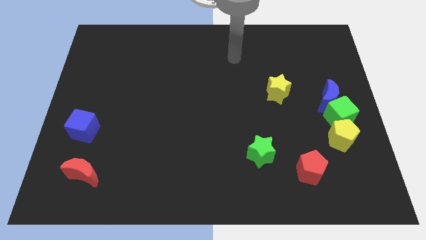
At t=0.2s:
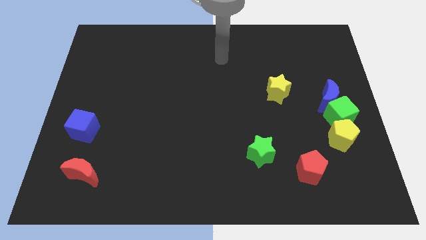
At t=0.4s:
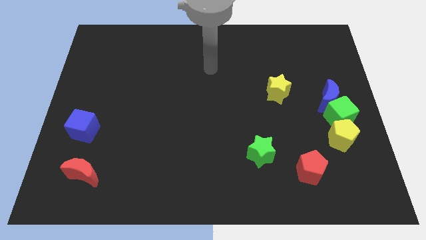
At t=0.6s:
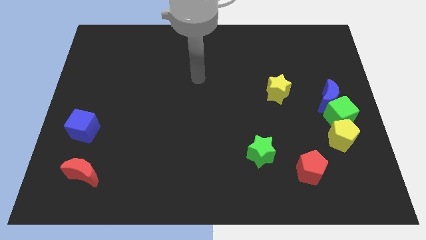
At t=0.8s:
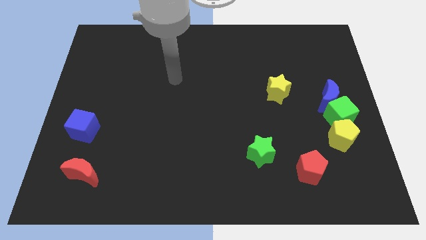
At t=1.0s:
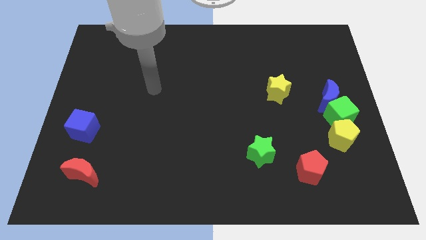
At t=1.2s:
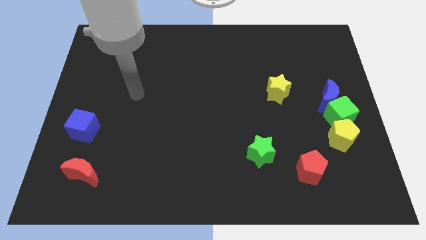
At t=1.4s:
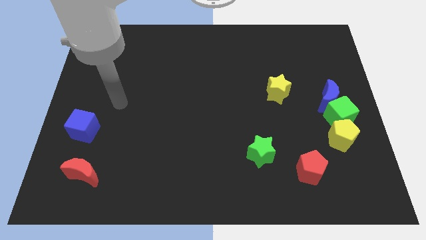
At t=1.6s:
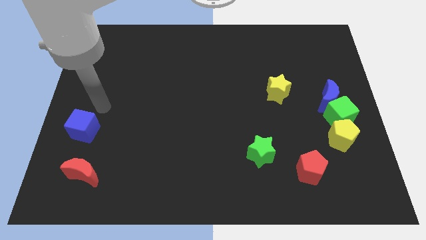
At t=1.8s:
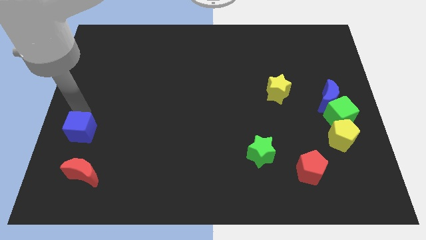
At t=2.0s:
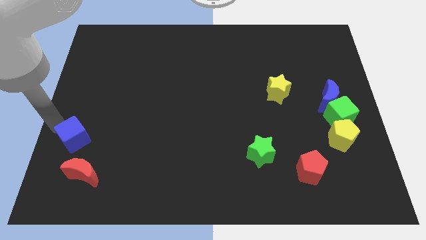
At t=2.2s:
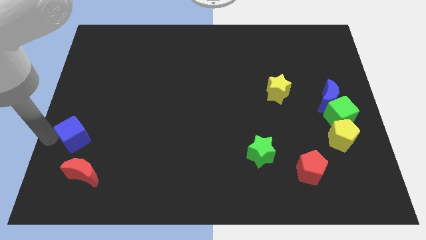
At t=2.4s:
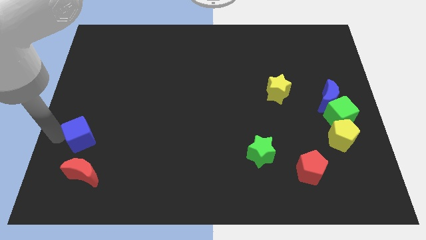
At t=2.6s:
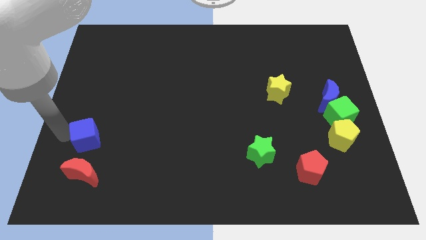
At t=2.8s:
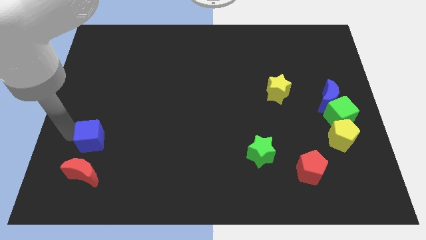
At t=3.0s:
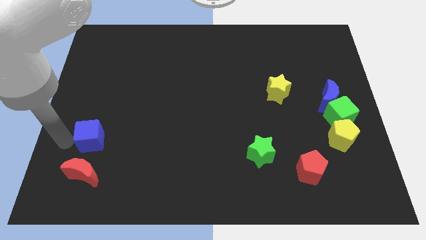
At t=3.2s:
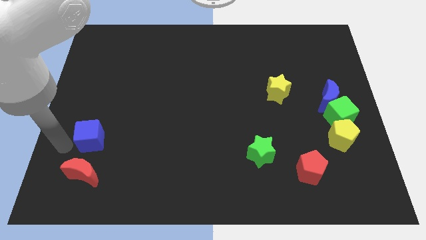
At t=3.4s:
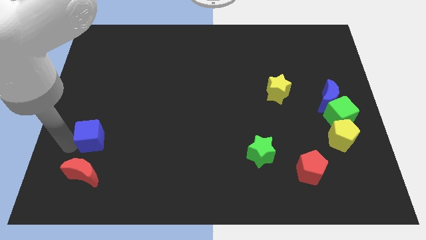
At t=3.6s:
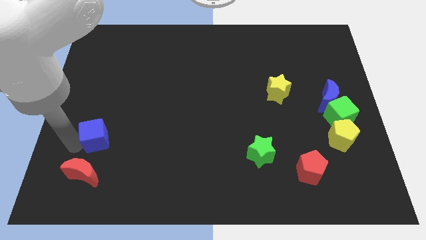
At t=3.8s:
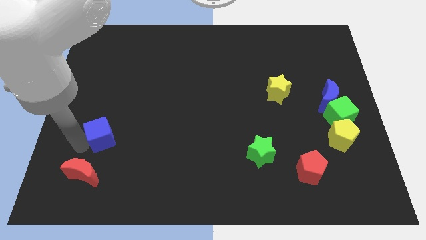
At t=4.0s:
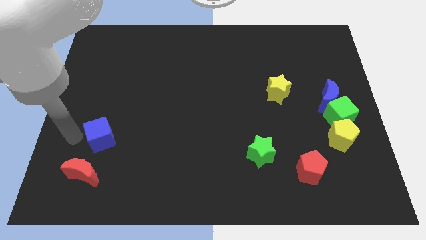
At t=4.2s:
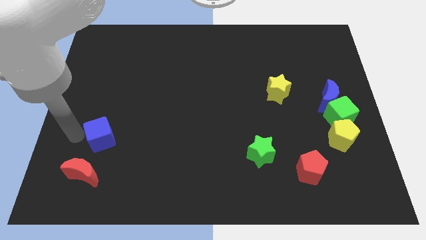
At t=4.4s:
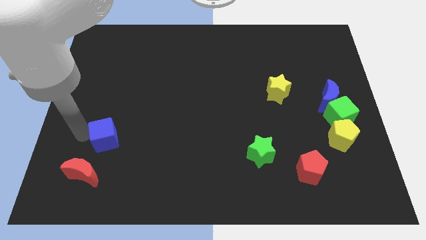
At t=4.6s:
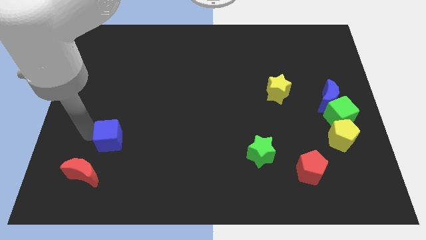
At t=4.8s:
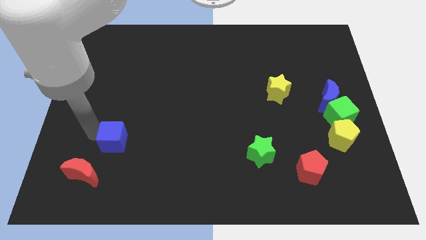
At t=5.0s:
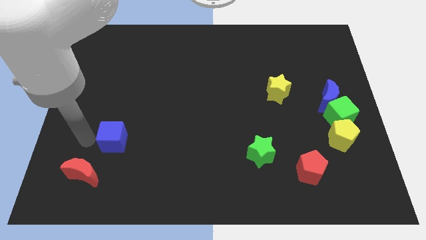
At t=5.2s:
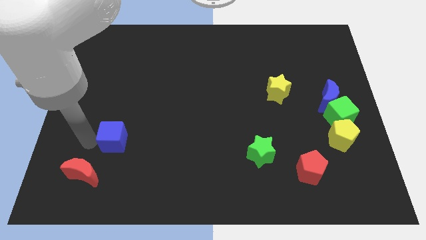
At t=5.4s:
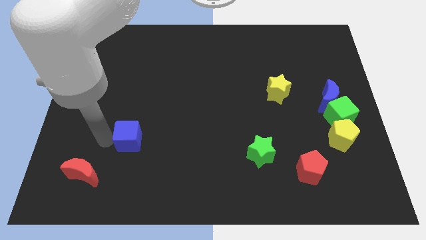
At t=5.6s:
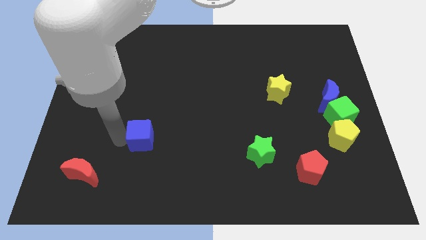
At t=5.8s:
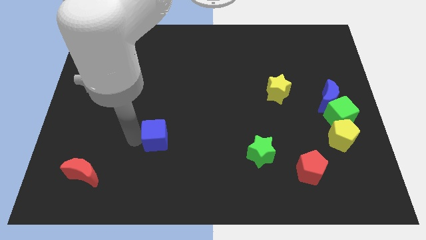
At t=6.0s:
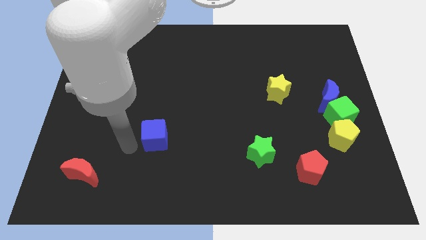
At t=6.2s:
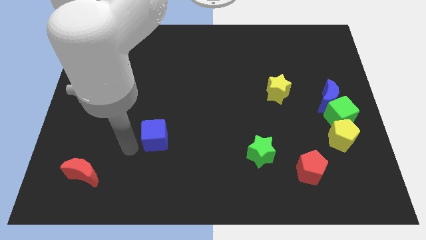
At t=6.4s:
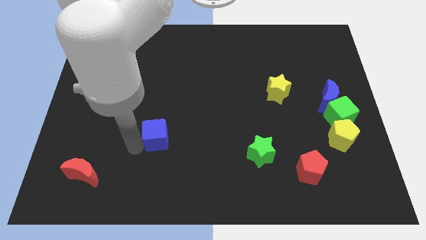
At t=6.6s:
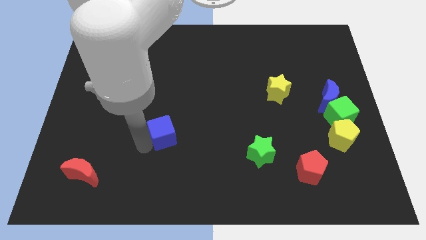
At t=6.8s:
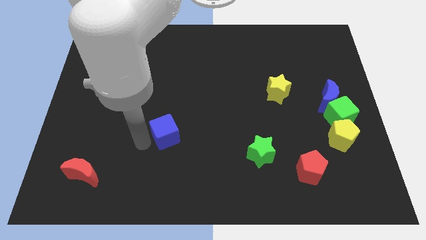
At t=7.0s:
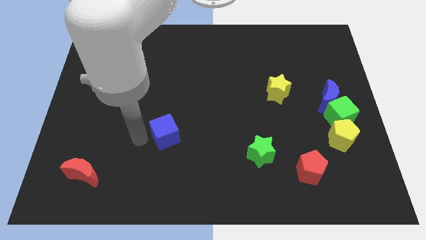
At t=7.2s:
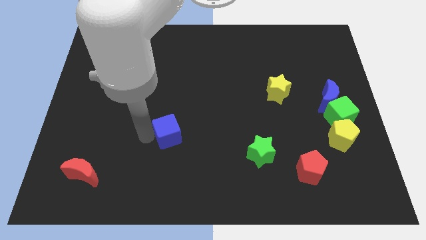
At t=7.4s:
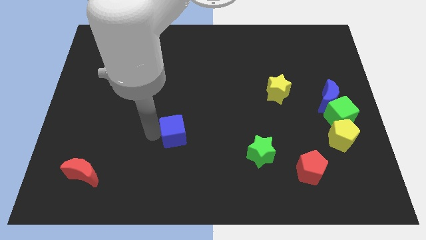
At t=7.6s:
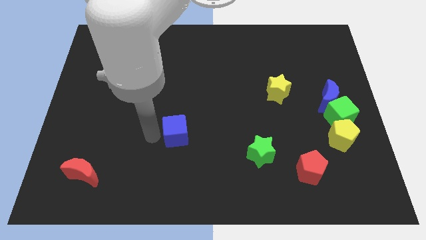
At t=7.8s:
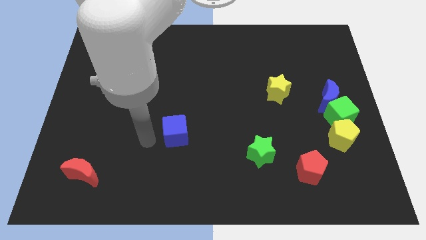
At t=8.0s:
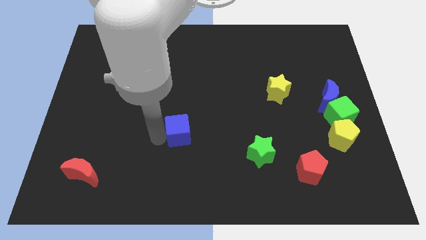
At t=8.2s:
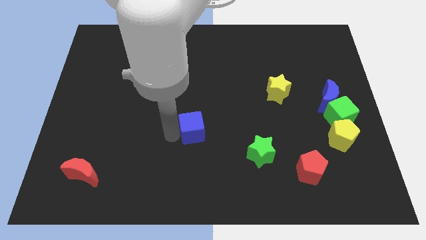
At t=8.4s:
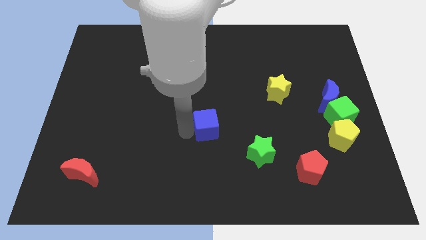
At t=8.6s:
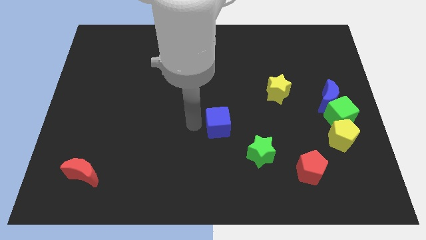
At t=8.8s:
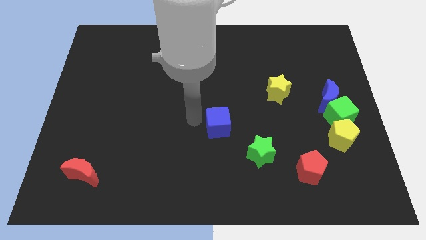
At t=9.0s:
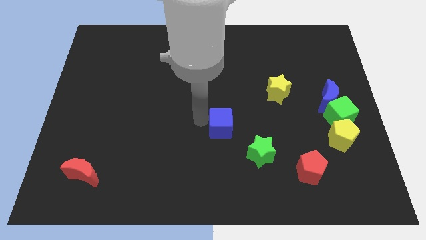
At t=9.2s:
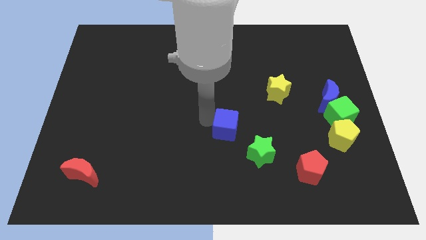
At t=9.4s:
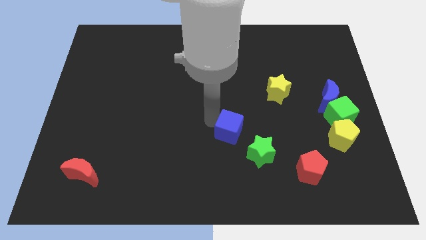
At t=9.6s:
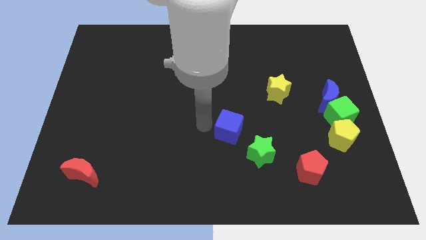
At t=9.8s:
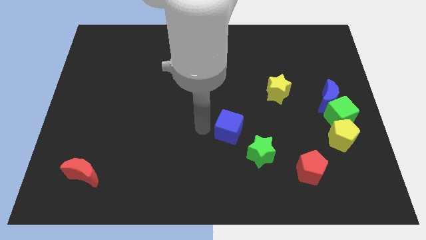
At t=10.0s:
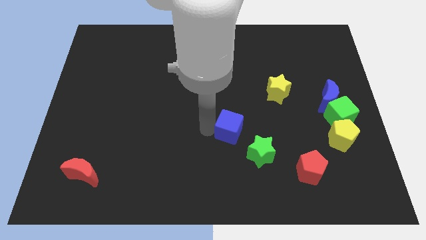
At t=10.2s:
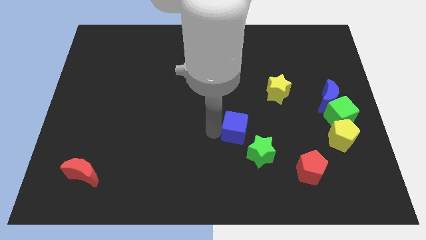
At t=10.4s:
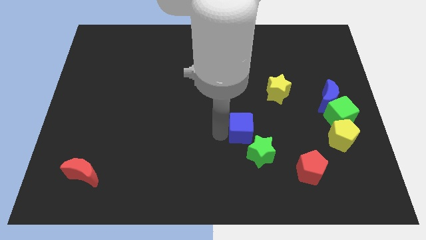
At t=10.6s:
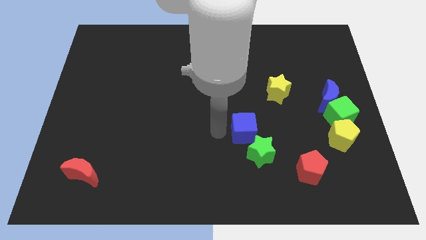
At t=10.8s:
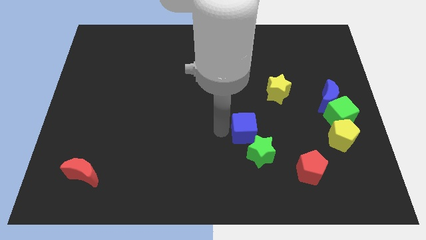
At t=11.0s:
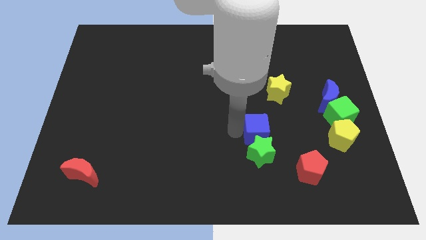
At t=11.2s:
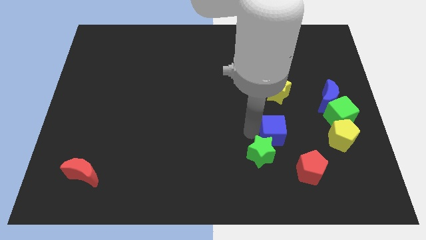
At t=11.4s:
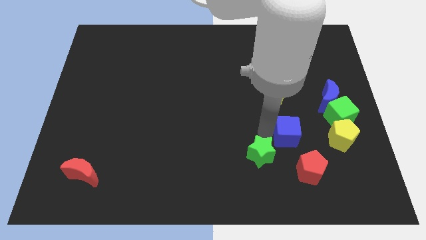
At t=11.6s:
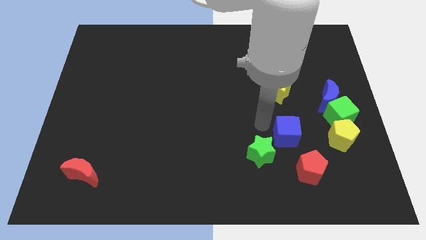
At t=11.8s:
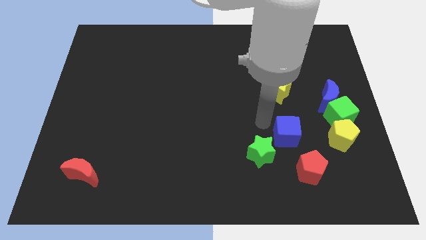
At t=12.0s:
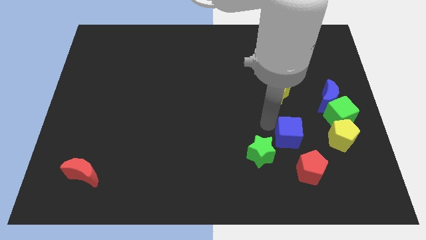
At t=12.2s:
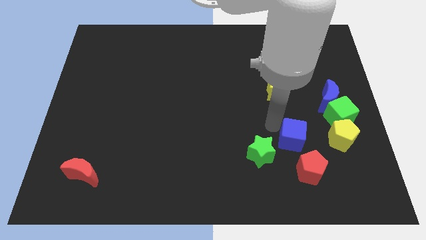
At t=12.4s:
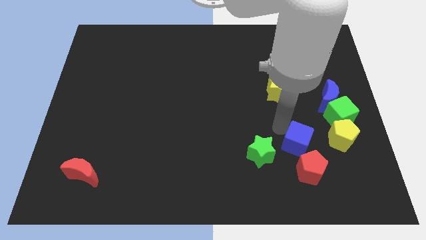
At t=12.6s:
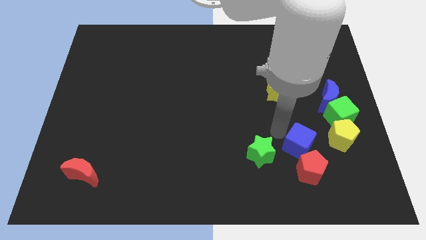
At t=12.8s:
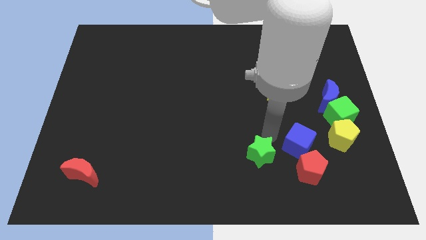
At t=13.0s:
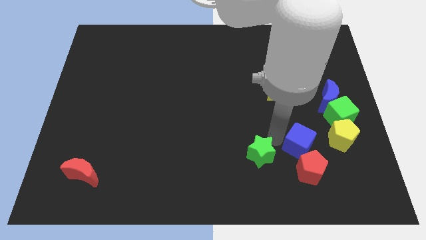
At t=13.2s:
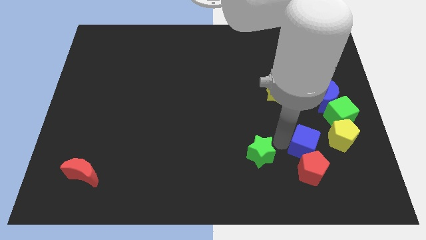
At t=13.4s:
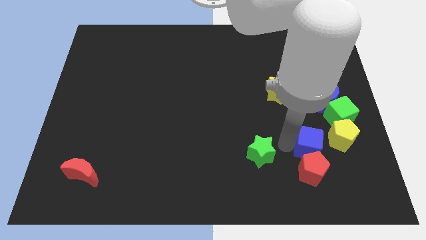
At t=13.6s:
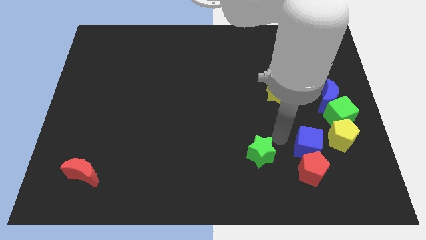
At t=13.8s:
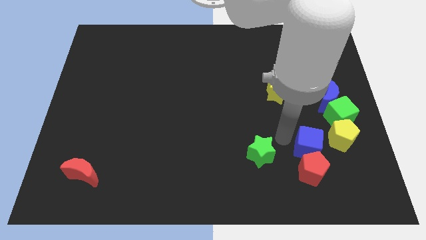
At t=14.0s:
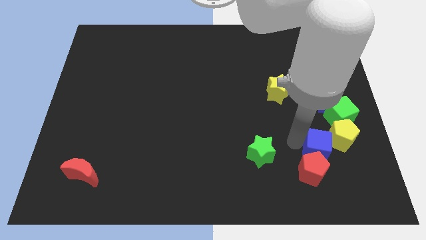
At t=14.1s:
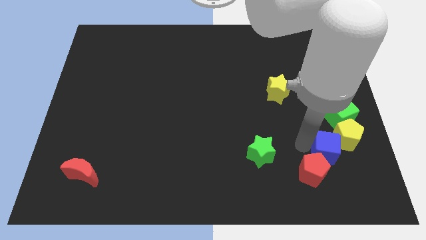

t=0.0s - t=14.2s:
put the blue cube below the blue moon
